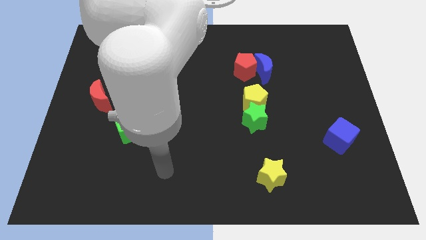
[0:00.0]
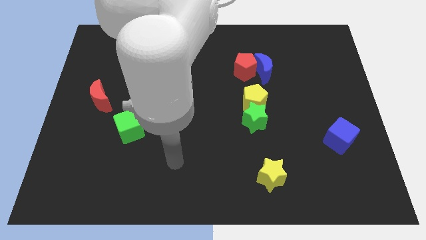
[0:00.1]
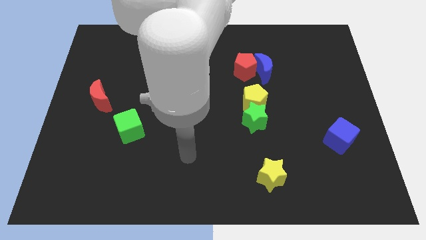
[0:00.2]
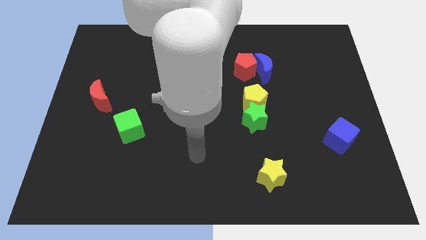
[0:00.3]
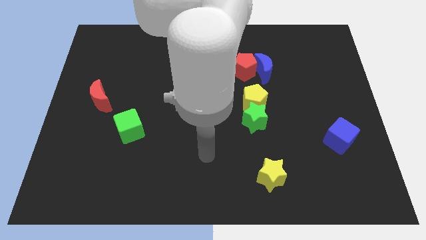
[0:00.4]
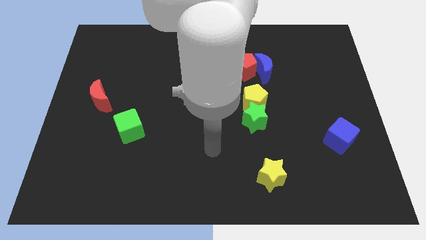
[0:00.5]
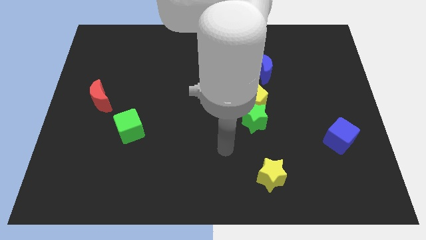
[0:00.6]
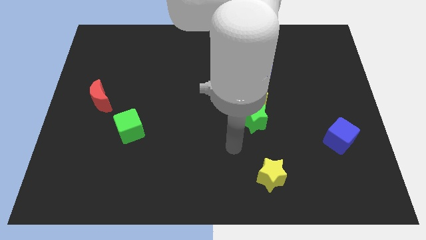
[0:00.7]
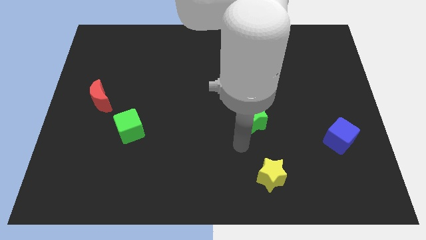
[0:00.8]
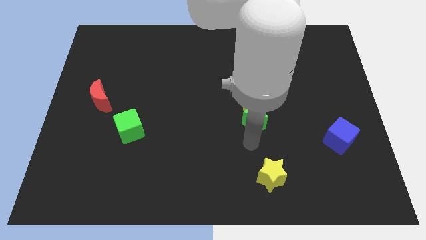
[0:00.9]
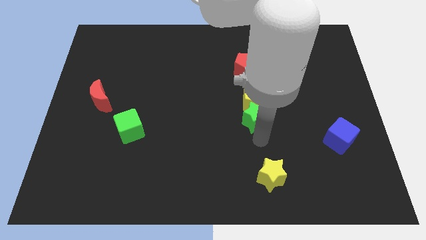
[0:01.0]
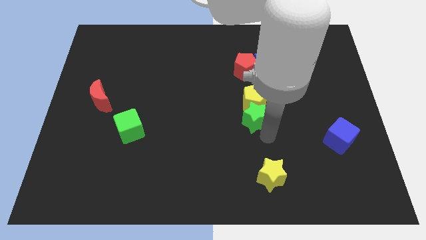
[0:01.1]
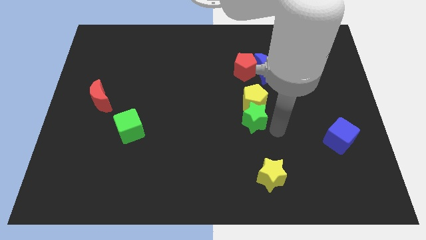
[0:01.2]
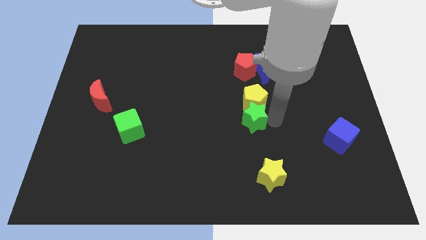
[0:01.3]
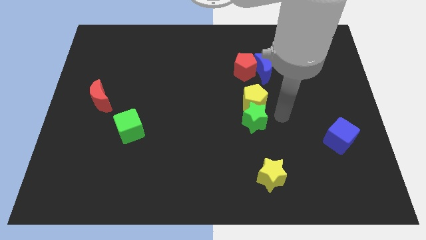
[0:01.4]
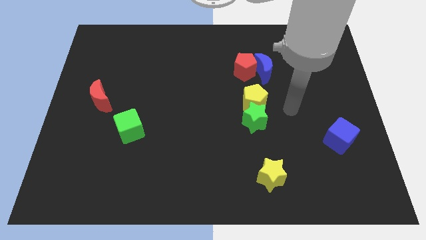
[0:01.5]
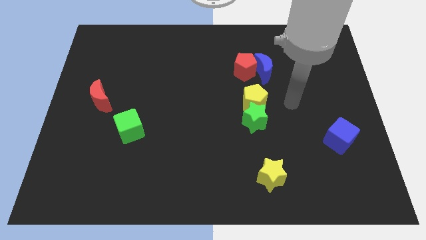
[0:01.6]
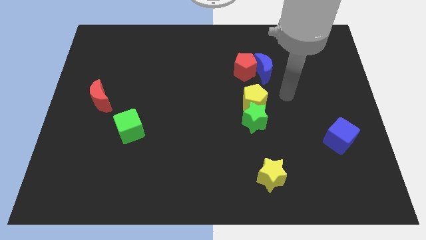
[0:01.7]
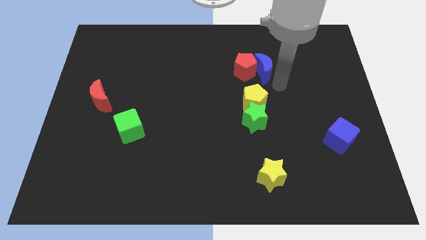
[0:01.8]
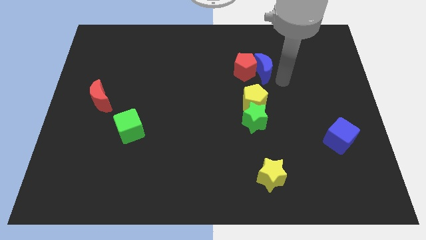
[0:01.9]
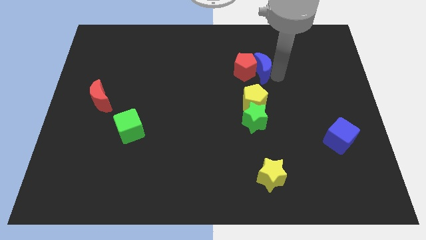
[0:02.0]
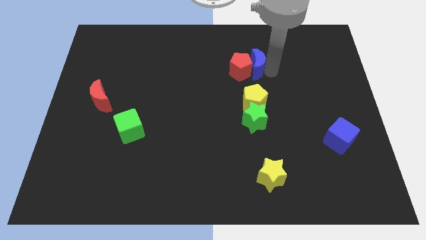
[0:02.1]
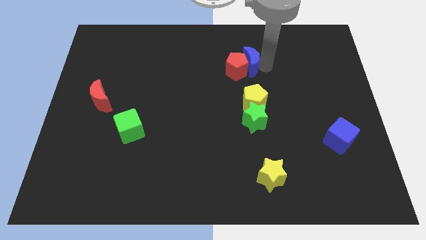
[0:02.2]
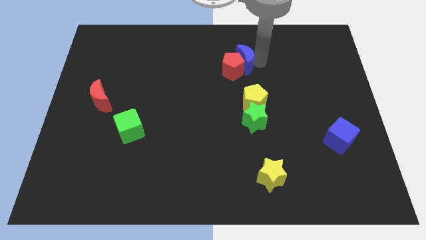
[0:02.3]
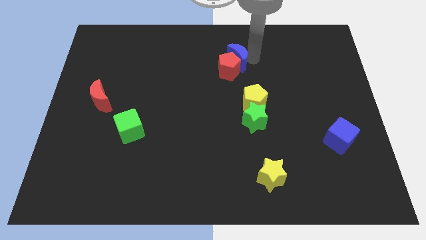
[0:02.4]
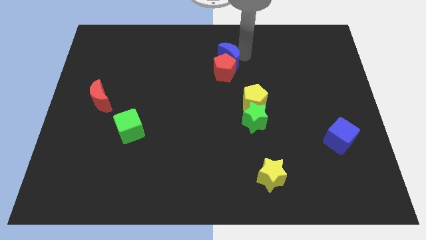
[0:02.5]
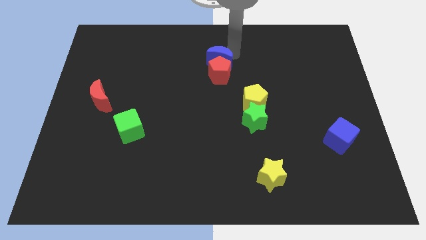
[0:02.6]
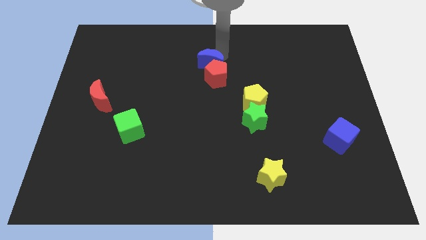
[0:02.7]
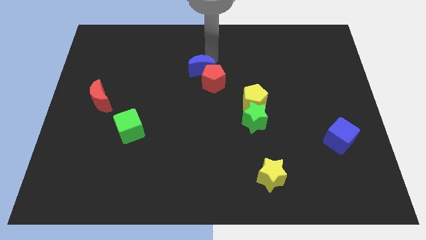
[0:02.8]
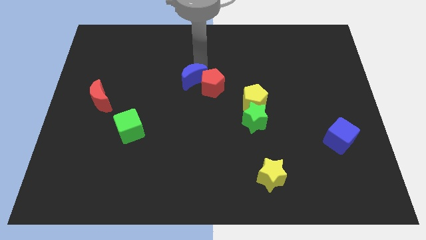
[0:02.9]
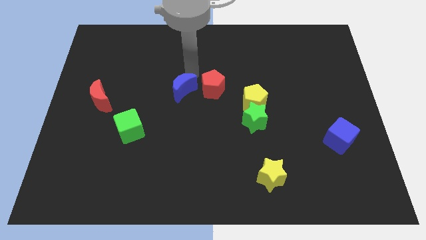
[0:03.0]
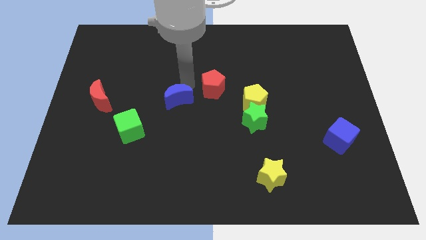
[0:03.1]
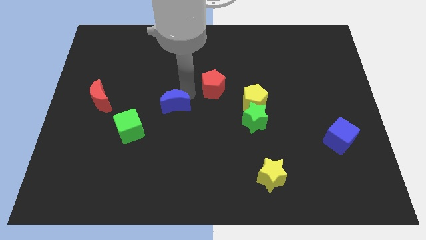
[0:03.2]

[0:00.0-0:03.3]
pull the red pentagon apart from the blue moon

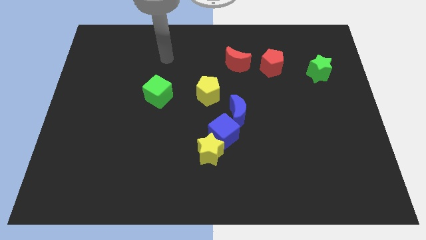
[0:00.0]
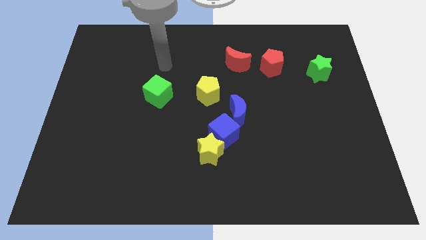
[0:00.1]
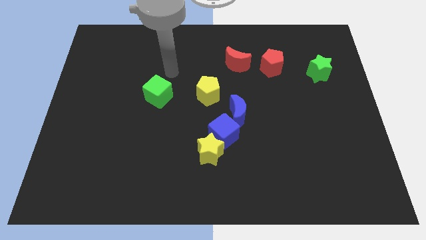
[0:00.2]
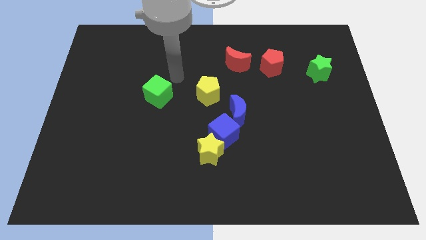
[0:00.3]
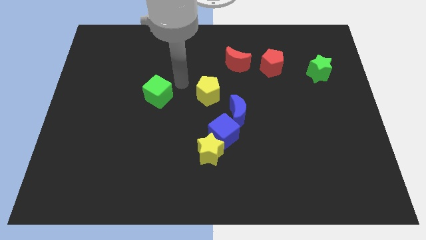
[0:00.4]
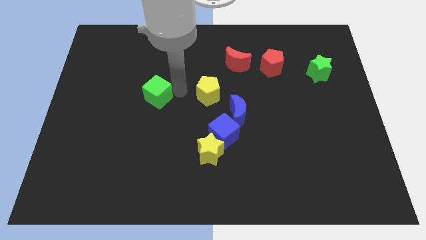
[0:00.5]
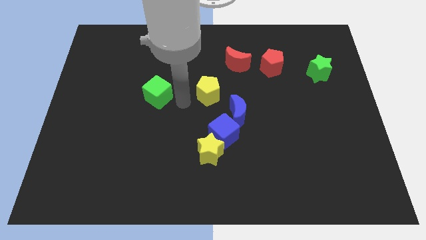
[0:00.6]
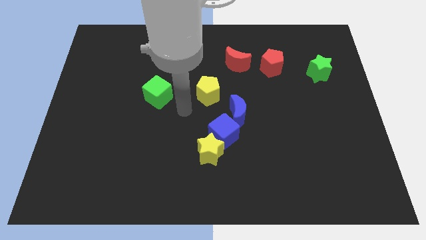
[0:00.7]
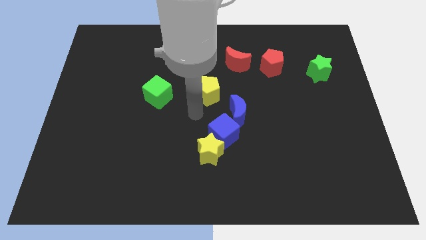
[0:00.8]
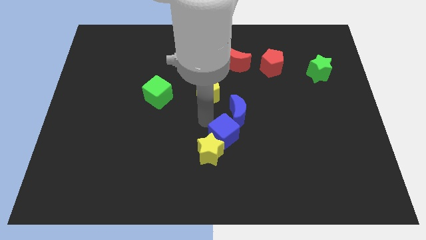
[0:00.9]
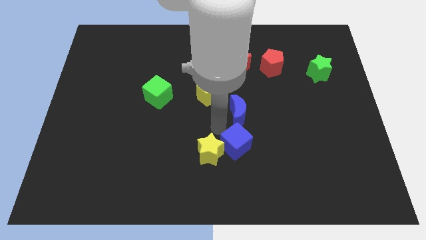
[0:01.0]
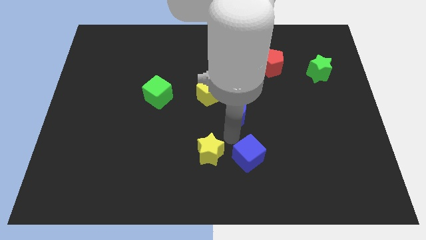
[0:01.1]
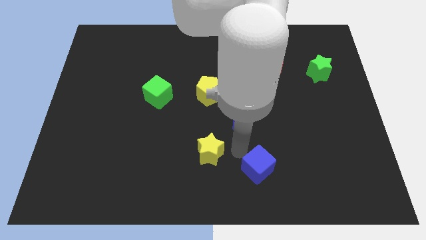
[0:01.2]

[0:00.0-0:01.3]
pull the yellow star apart from the blue cube

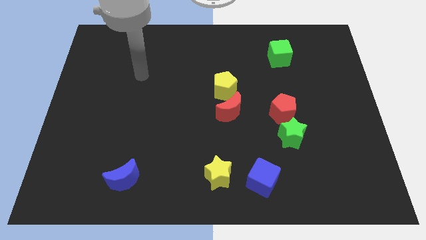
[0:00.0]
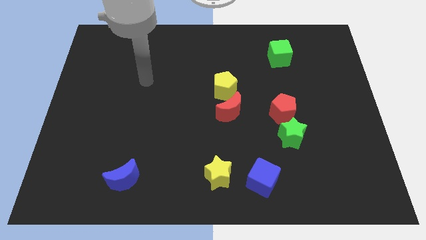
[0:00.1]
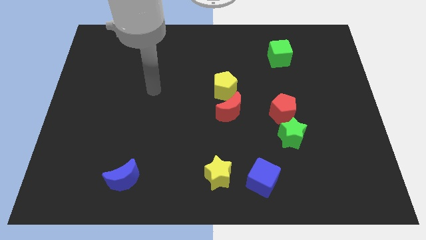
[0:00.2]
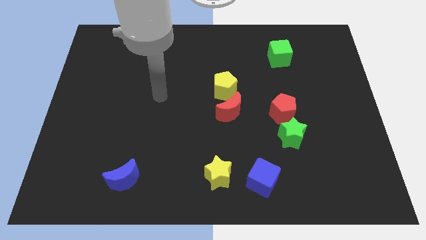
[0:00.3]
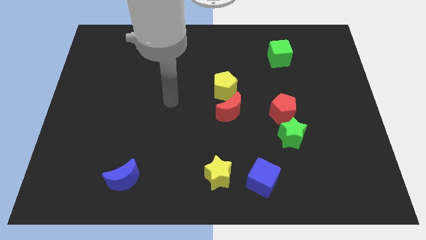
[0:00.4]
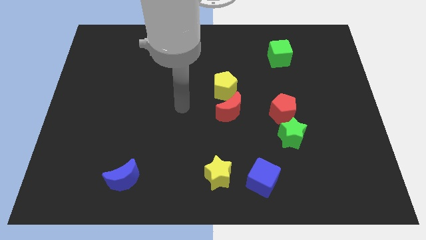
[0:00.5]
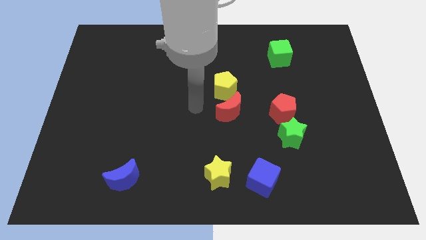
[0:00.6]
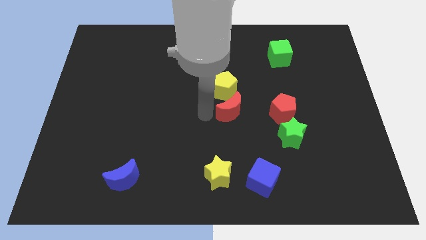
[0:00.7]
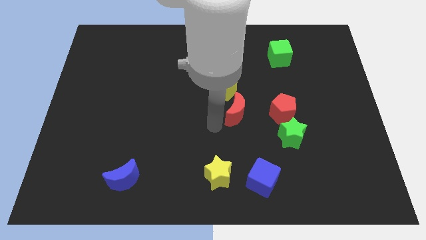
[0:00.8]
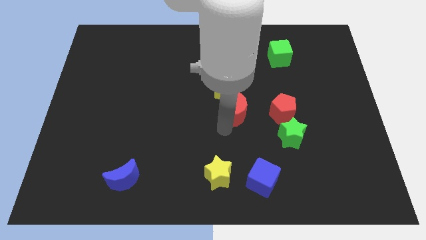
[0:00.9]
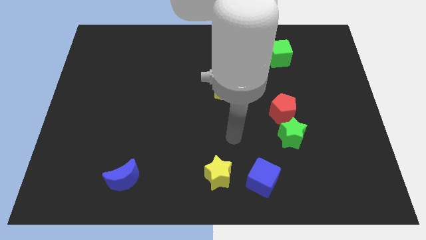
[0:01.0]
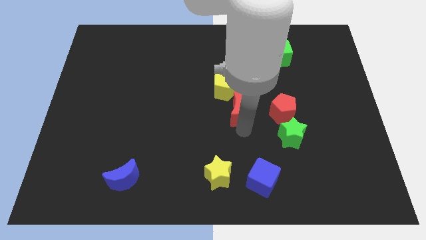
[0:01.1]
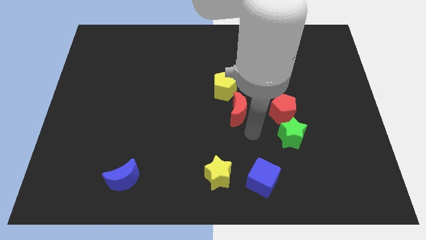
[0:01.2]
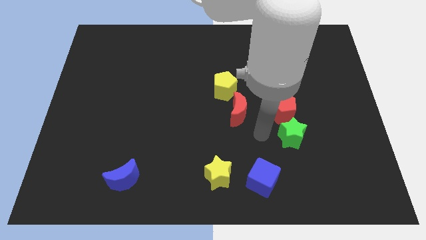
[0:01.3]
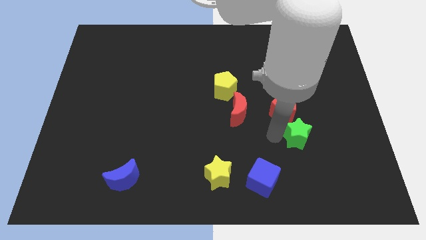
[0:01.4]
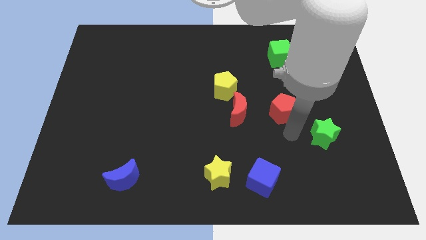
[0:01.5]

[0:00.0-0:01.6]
separate the red pentagon from the green star

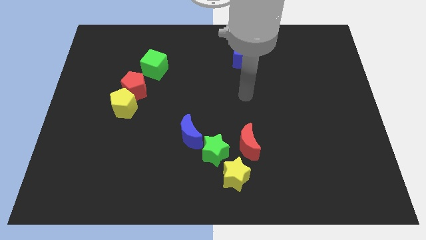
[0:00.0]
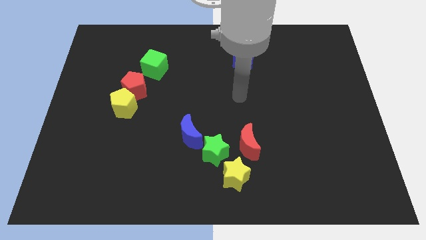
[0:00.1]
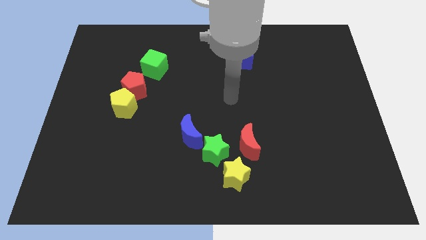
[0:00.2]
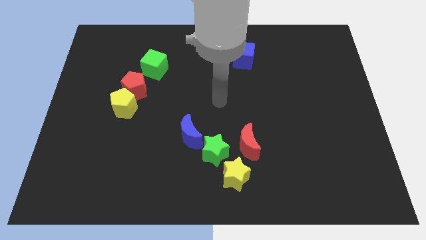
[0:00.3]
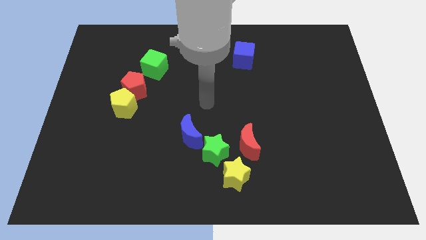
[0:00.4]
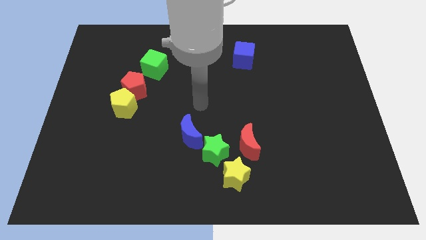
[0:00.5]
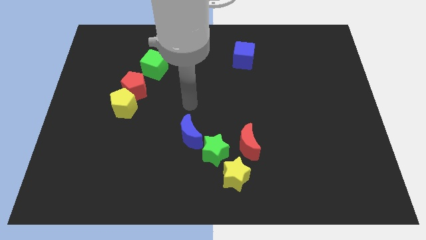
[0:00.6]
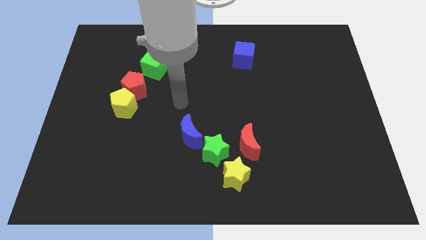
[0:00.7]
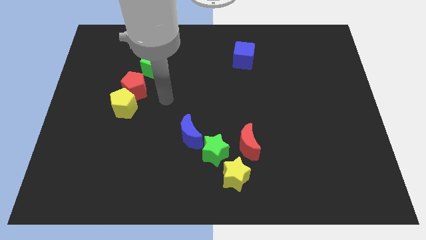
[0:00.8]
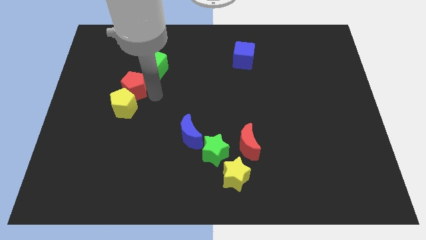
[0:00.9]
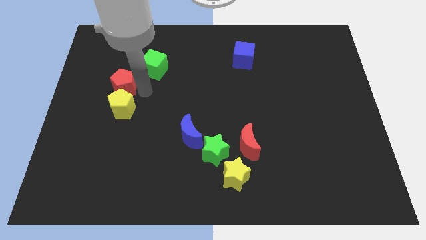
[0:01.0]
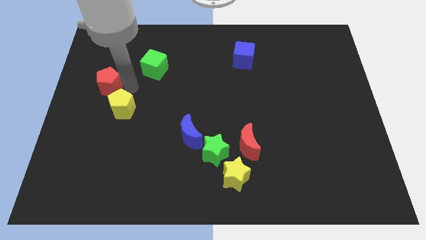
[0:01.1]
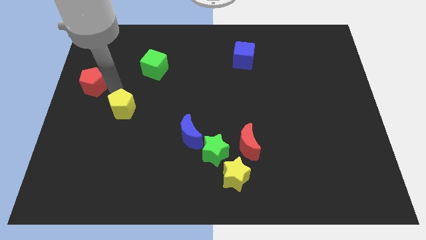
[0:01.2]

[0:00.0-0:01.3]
pull the yellow pentagon apart from the red pentagon

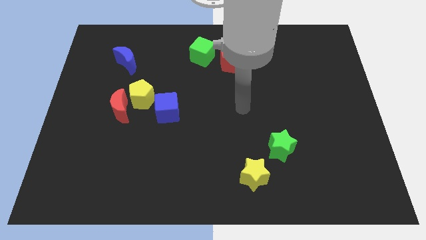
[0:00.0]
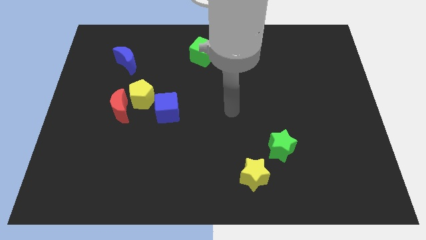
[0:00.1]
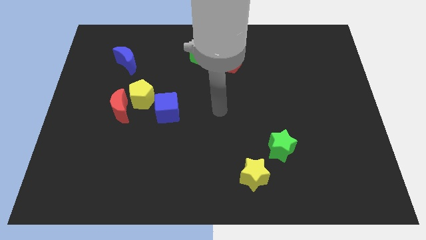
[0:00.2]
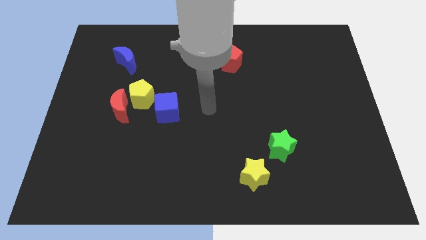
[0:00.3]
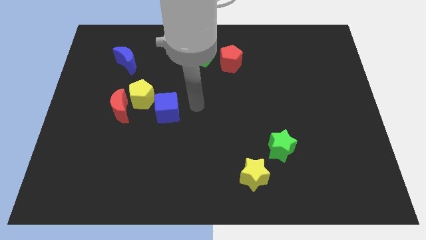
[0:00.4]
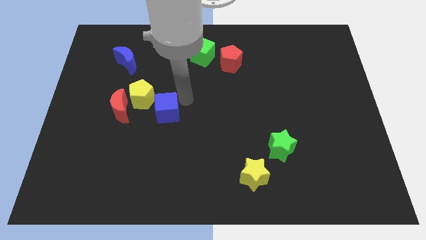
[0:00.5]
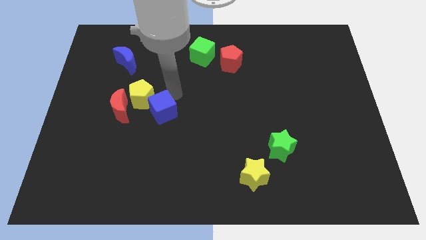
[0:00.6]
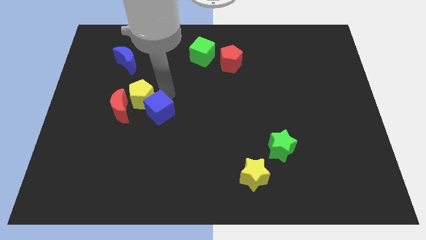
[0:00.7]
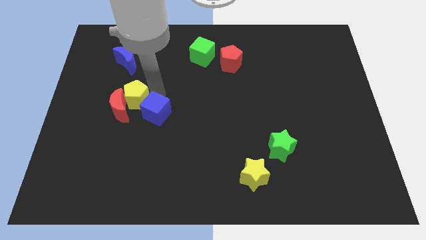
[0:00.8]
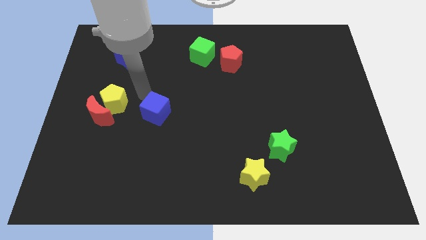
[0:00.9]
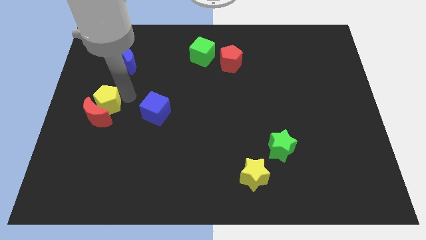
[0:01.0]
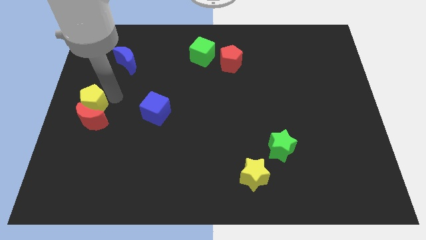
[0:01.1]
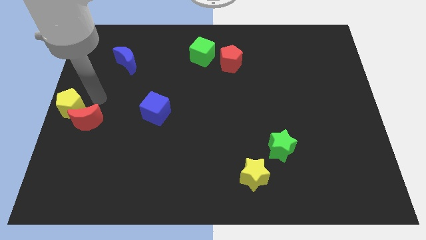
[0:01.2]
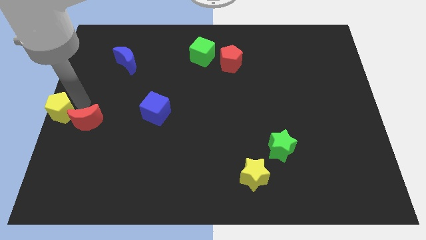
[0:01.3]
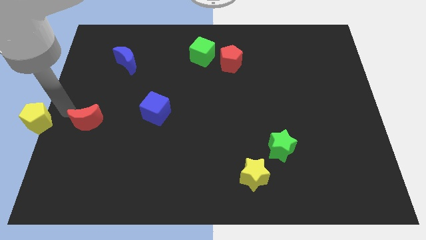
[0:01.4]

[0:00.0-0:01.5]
pull the red moon apart from the yellow pentagon

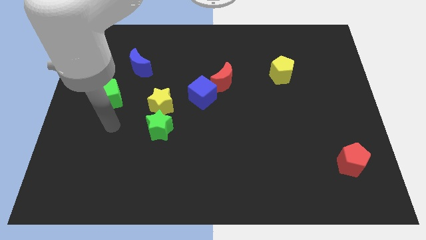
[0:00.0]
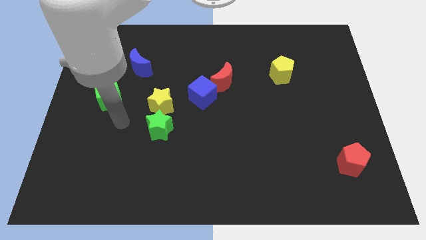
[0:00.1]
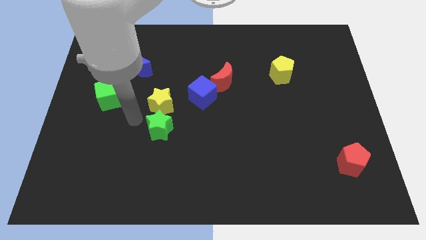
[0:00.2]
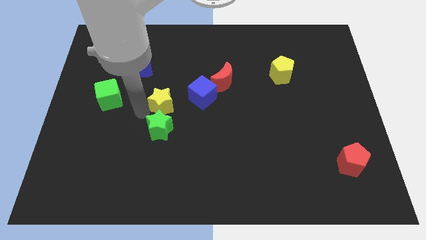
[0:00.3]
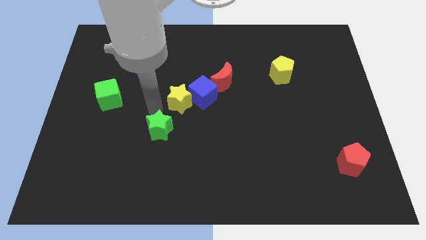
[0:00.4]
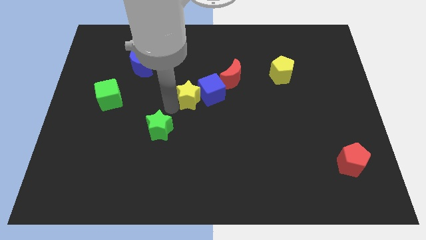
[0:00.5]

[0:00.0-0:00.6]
separate the green star from the yellow star
